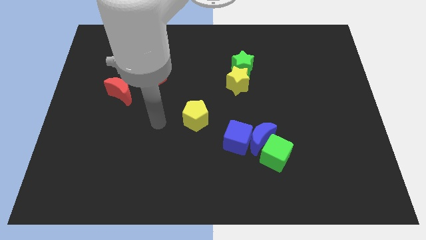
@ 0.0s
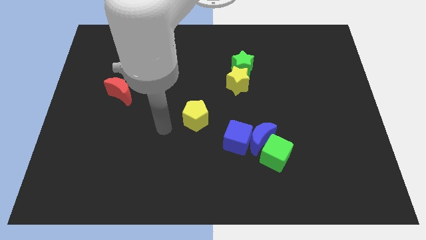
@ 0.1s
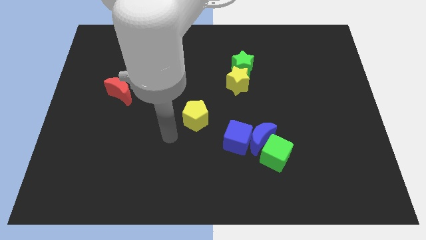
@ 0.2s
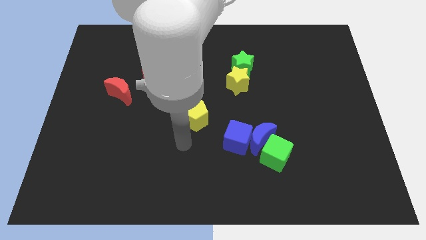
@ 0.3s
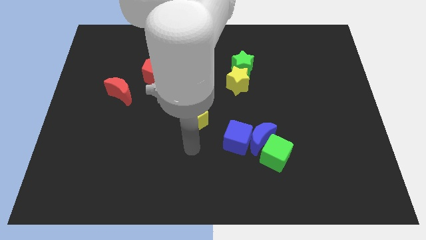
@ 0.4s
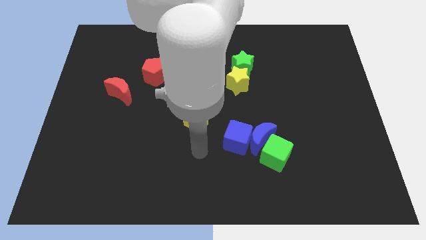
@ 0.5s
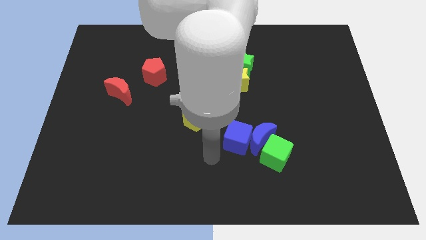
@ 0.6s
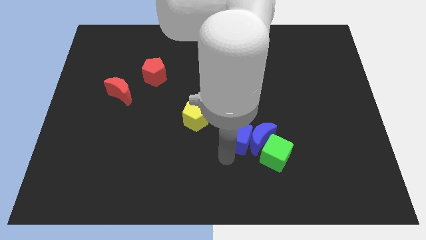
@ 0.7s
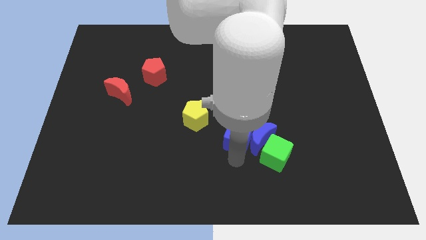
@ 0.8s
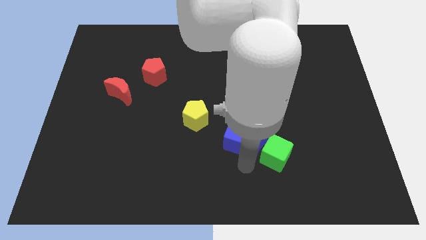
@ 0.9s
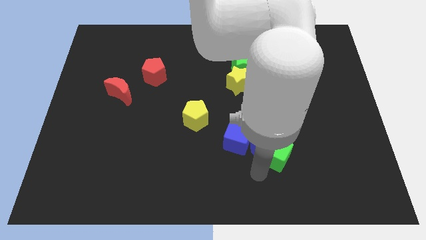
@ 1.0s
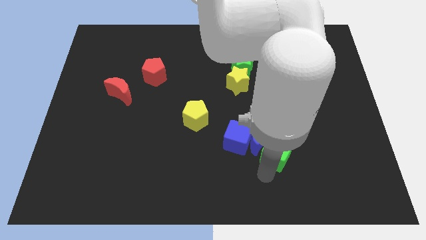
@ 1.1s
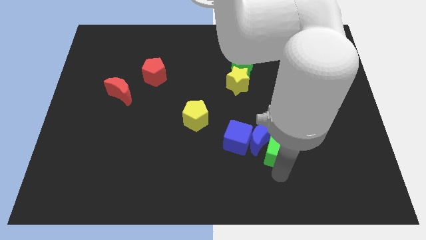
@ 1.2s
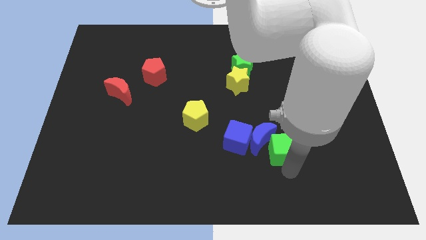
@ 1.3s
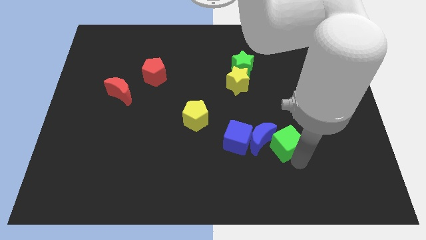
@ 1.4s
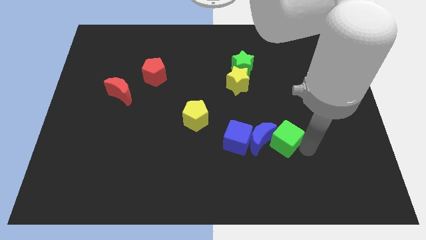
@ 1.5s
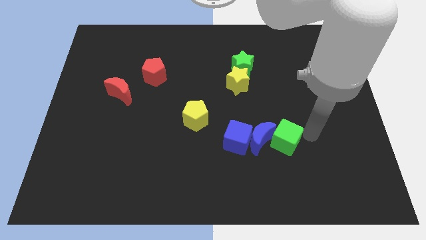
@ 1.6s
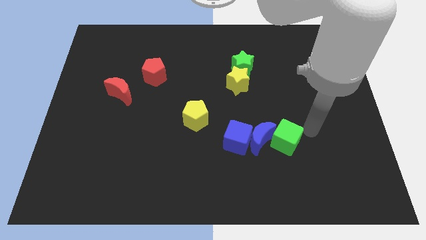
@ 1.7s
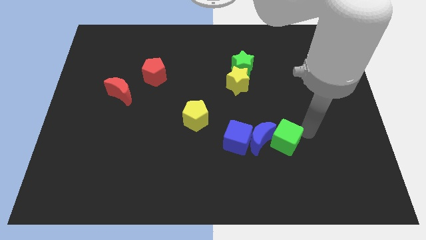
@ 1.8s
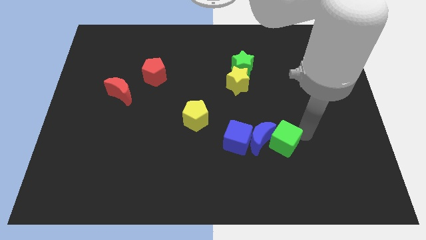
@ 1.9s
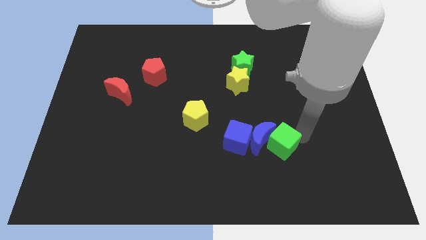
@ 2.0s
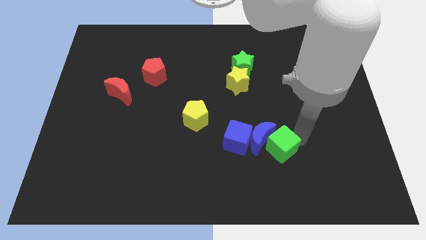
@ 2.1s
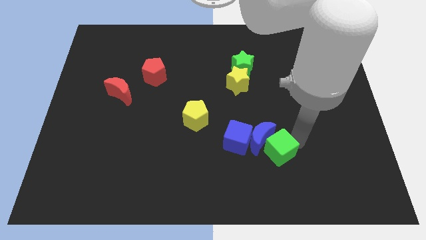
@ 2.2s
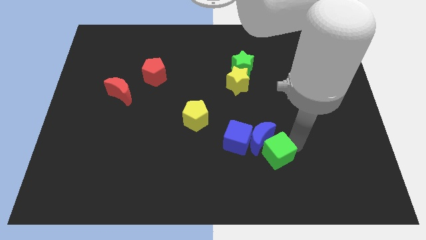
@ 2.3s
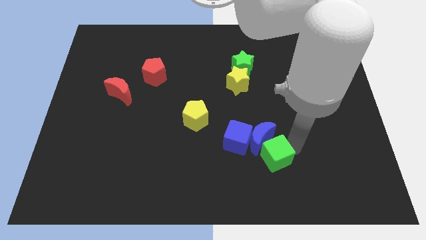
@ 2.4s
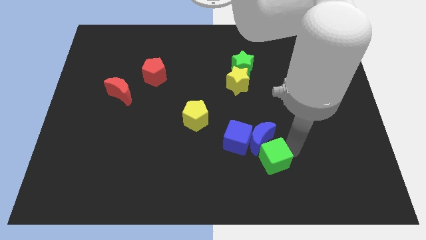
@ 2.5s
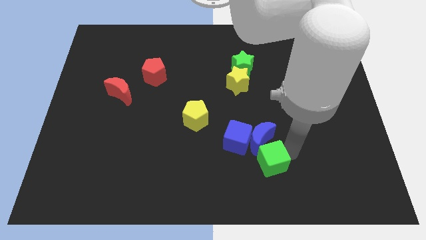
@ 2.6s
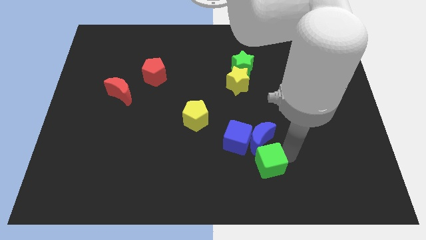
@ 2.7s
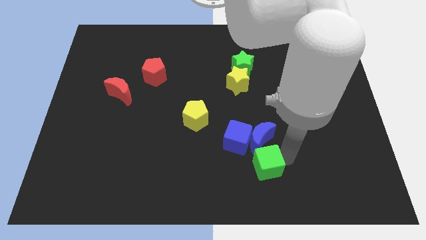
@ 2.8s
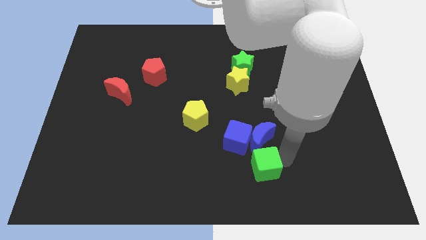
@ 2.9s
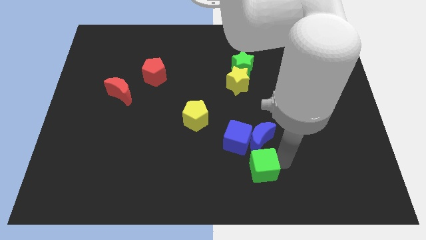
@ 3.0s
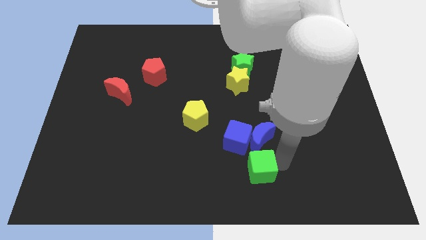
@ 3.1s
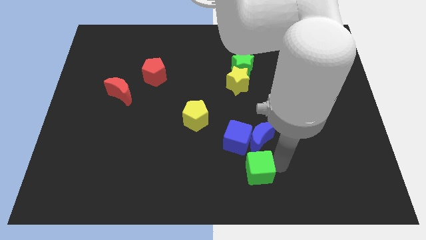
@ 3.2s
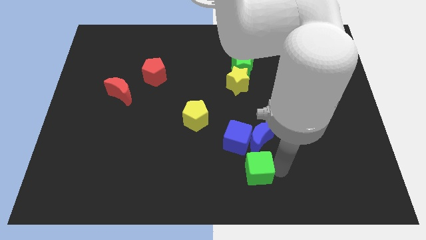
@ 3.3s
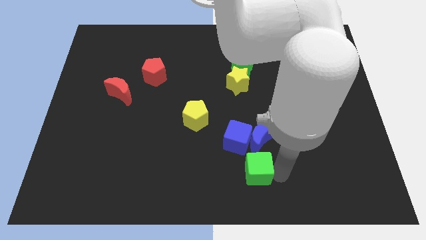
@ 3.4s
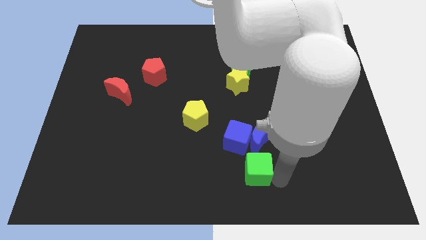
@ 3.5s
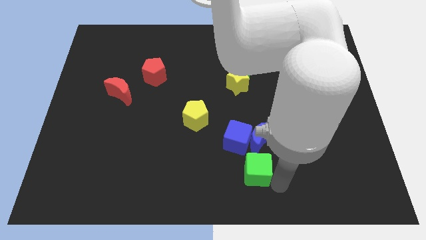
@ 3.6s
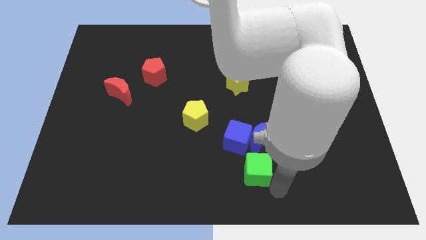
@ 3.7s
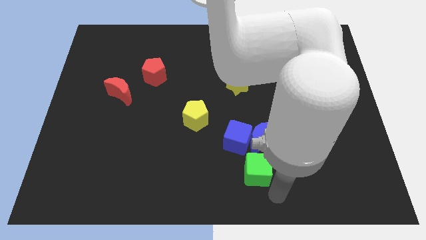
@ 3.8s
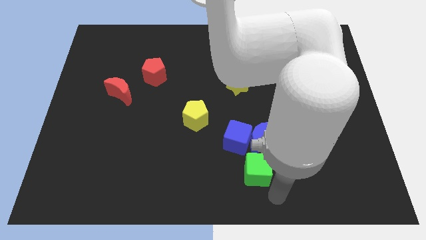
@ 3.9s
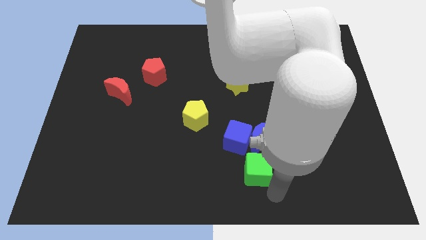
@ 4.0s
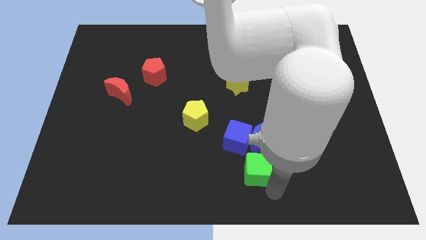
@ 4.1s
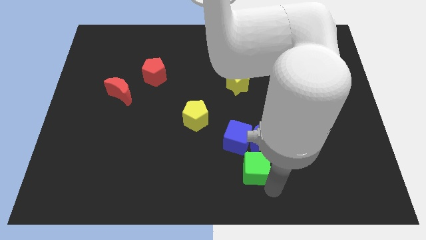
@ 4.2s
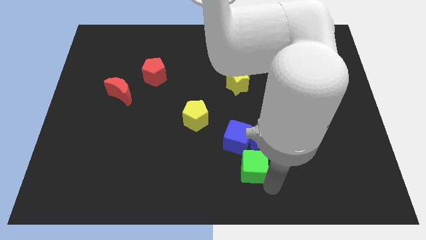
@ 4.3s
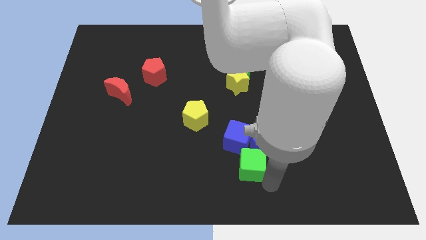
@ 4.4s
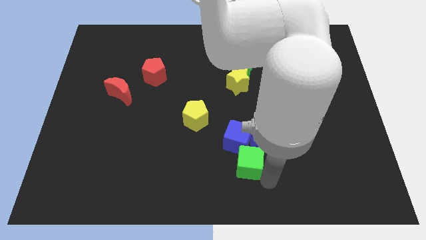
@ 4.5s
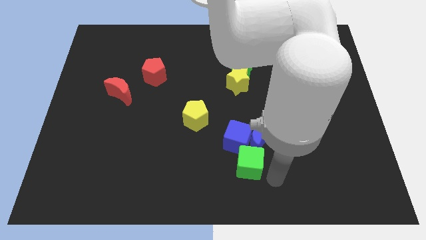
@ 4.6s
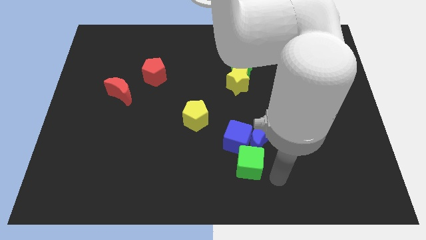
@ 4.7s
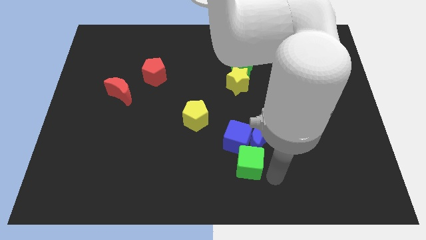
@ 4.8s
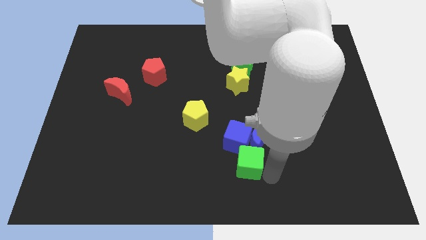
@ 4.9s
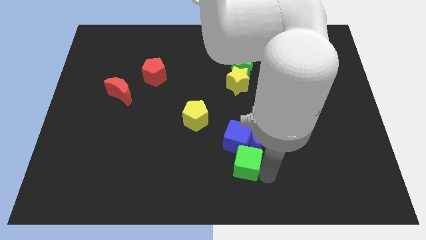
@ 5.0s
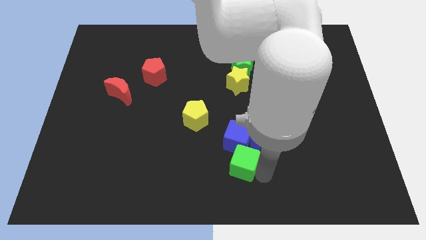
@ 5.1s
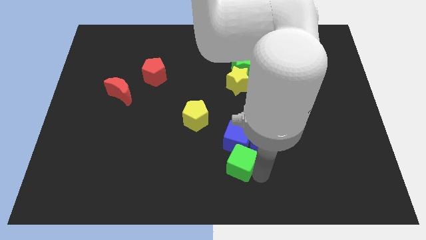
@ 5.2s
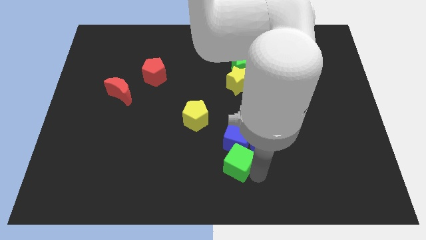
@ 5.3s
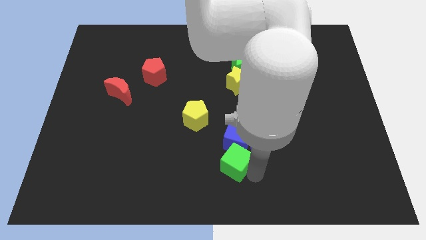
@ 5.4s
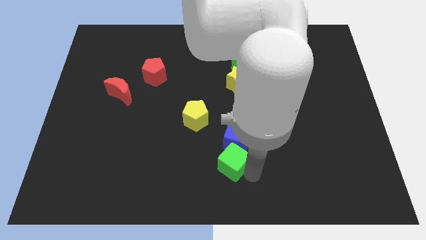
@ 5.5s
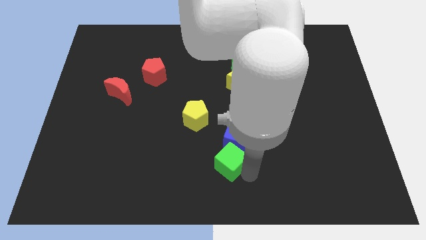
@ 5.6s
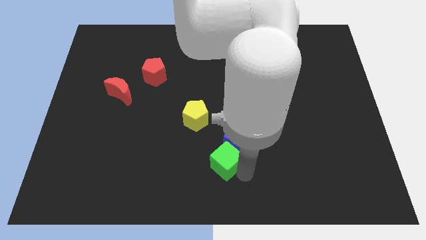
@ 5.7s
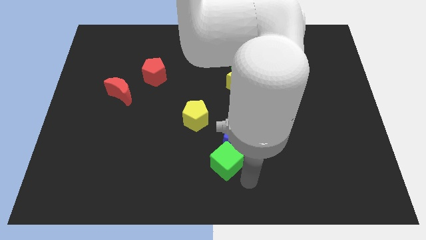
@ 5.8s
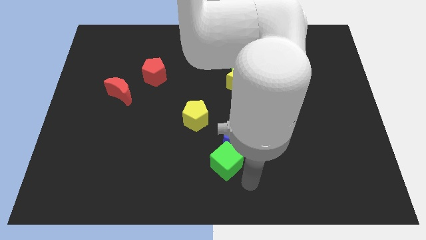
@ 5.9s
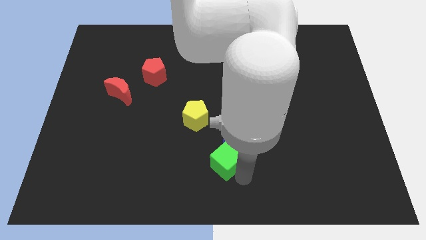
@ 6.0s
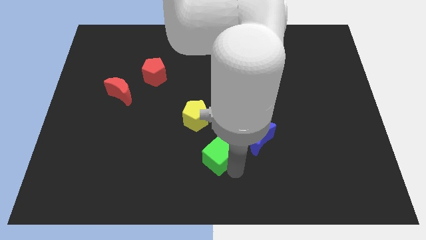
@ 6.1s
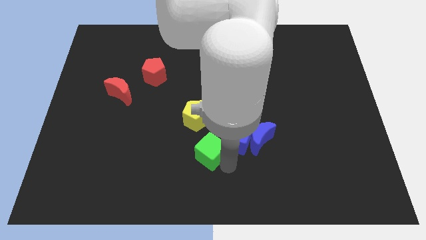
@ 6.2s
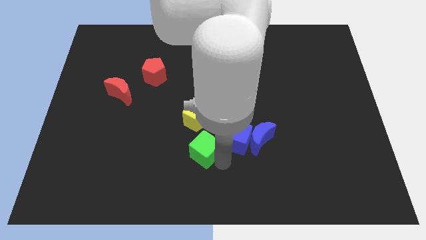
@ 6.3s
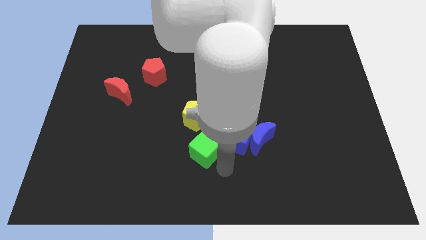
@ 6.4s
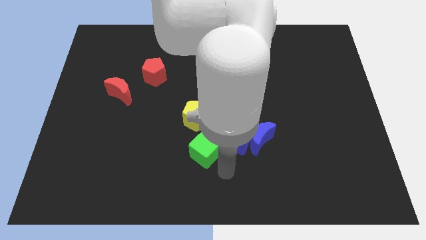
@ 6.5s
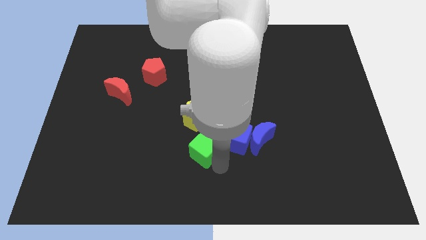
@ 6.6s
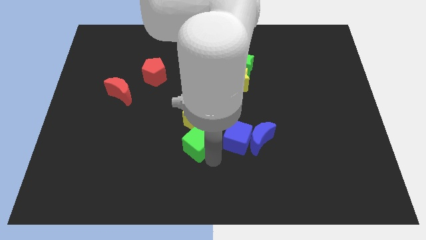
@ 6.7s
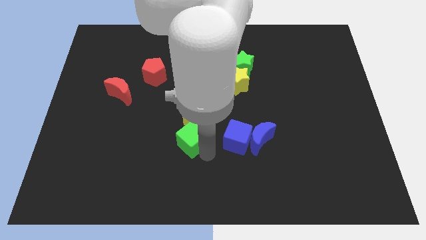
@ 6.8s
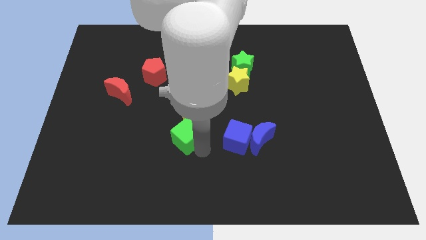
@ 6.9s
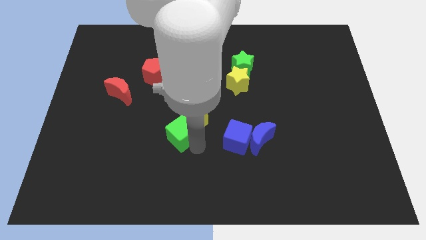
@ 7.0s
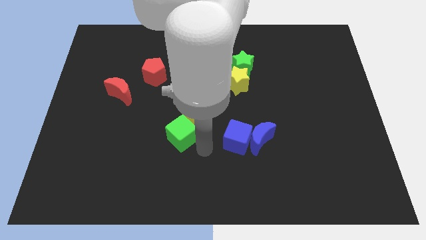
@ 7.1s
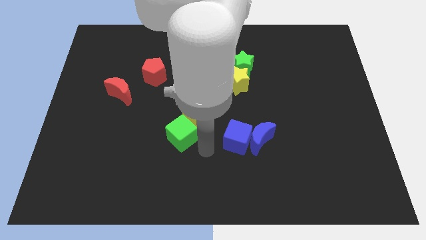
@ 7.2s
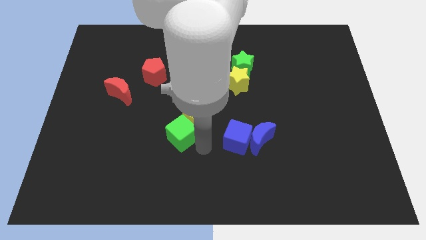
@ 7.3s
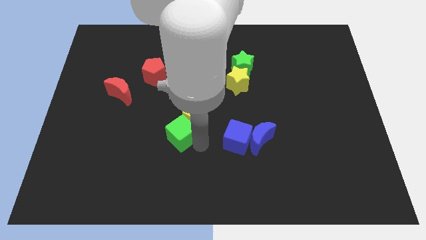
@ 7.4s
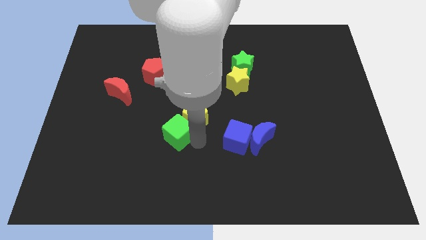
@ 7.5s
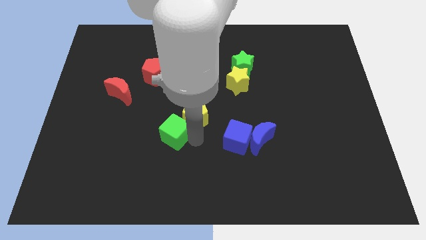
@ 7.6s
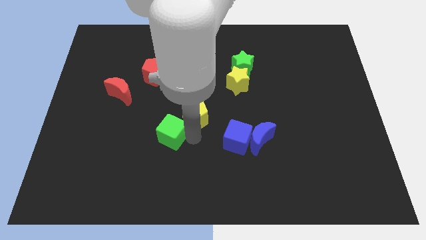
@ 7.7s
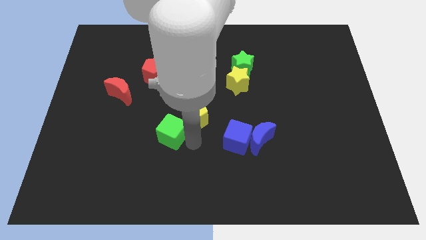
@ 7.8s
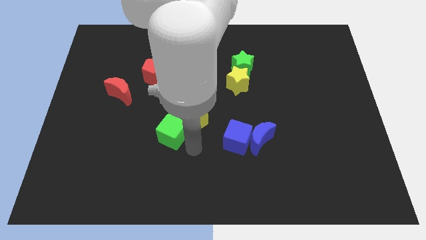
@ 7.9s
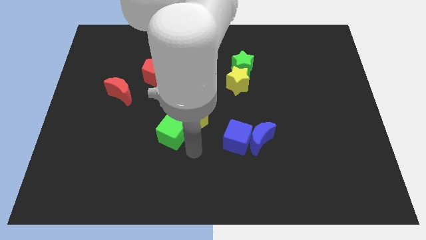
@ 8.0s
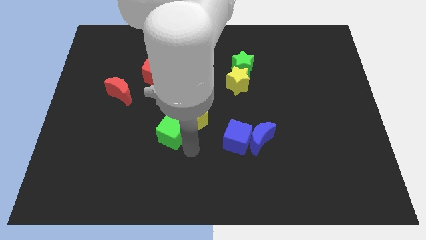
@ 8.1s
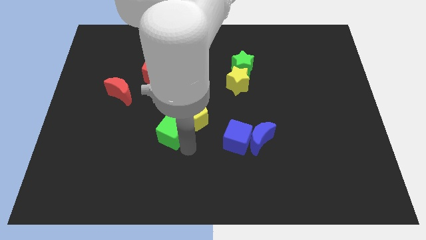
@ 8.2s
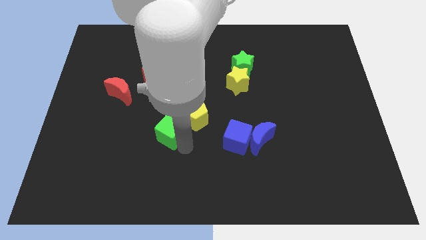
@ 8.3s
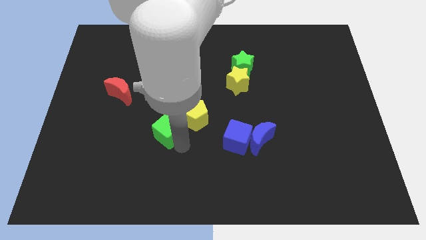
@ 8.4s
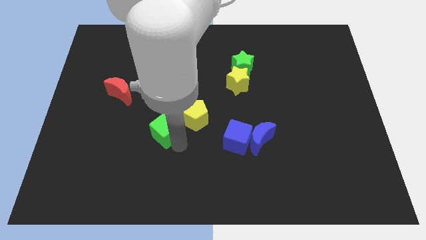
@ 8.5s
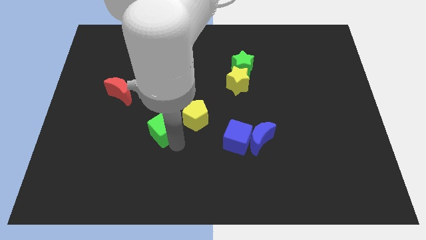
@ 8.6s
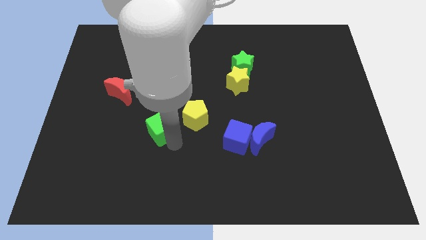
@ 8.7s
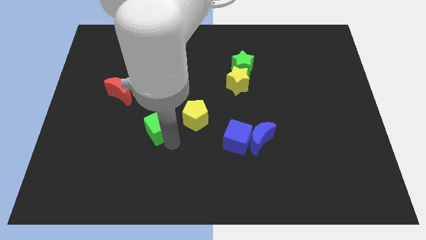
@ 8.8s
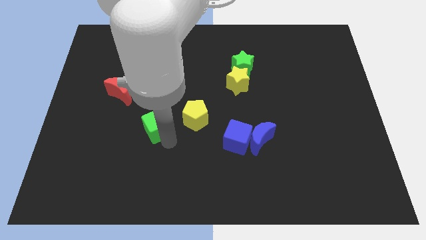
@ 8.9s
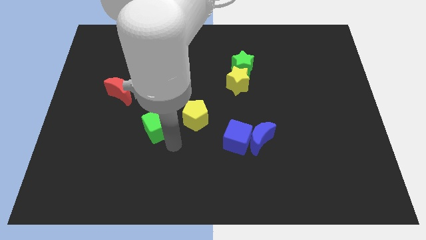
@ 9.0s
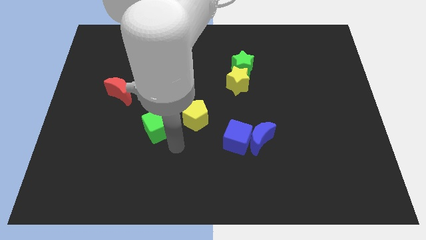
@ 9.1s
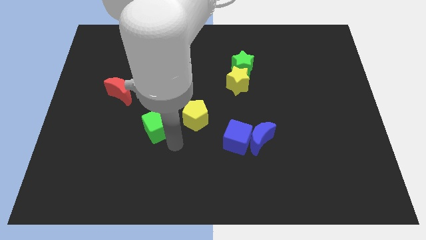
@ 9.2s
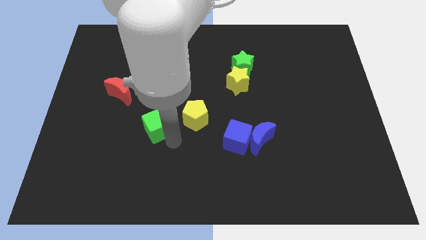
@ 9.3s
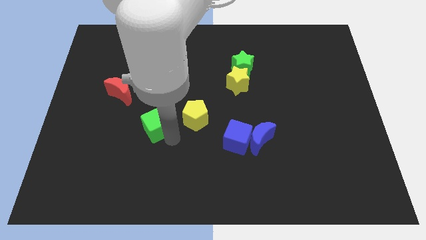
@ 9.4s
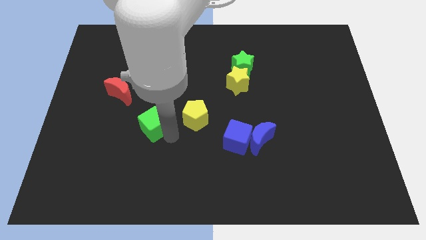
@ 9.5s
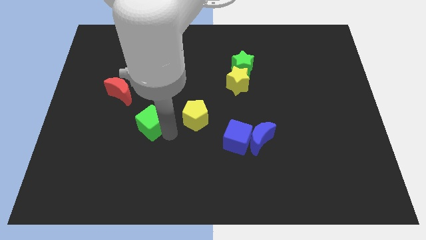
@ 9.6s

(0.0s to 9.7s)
put the green cube to the bottom right of the red moon
